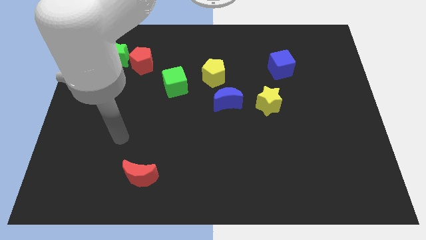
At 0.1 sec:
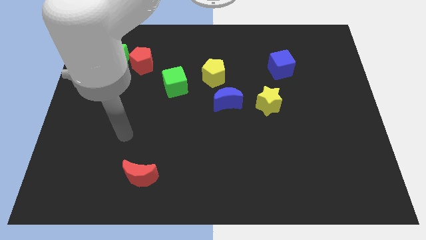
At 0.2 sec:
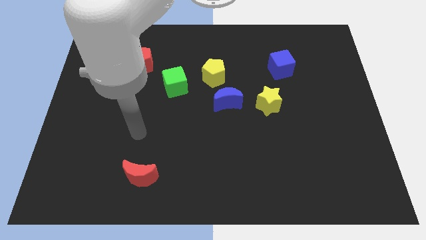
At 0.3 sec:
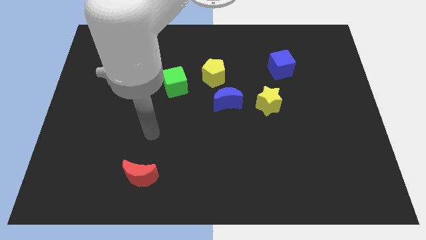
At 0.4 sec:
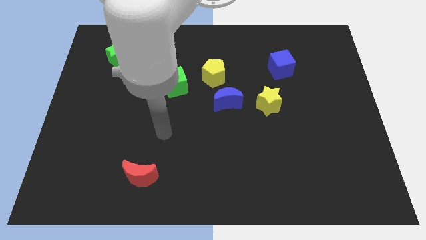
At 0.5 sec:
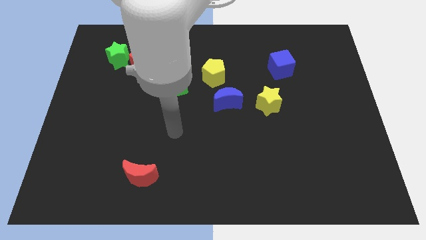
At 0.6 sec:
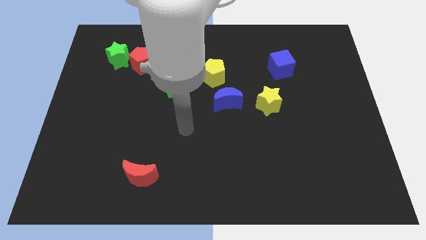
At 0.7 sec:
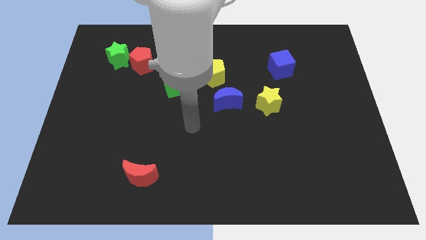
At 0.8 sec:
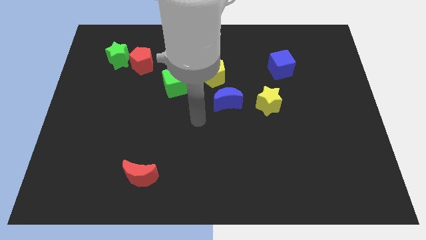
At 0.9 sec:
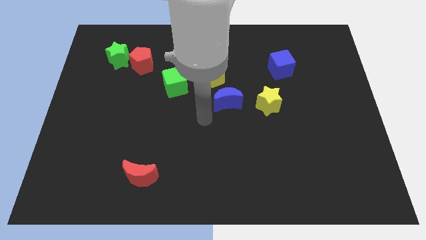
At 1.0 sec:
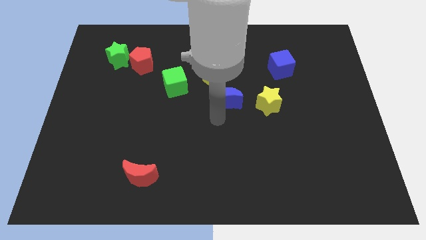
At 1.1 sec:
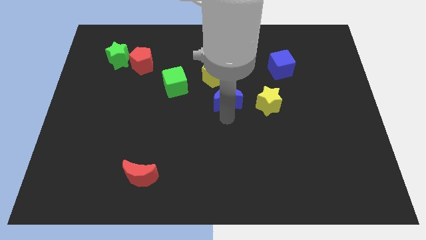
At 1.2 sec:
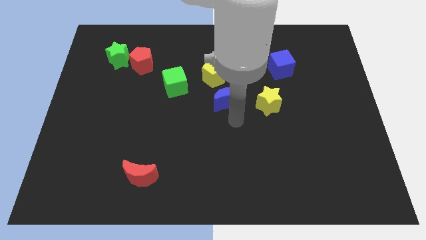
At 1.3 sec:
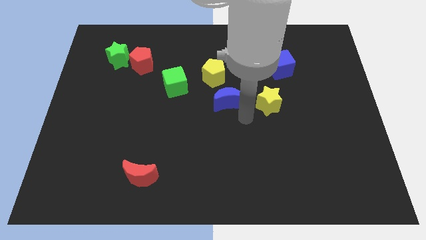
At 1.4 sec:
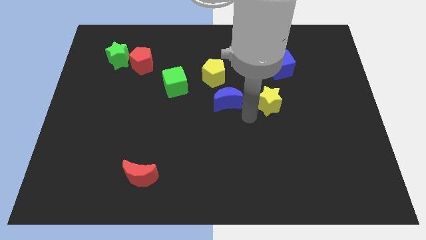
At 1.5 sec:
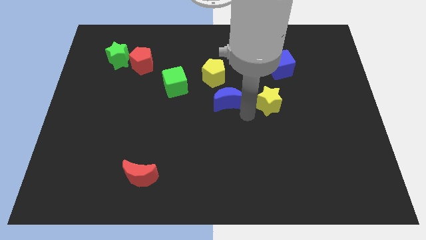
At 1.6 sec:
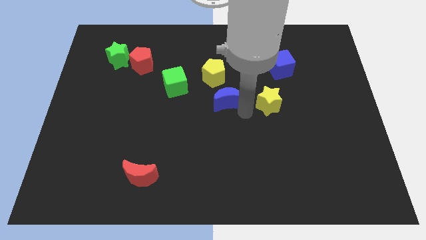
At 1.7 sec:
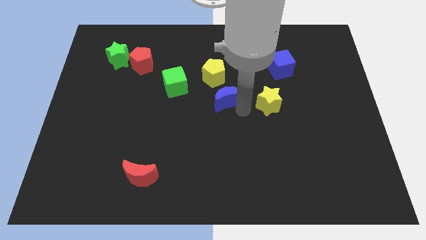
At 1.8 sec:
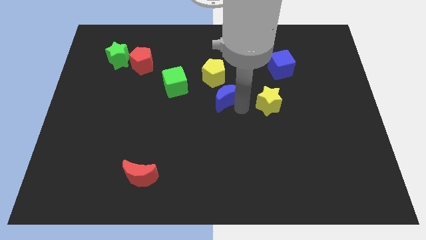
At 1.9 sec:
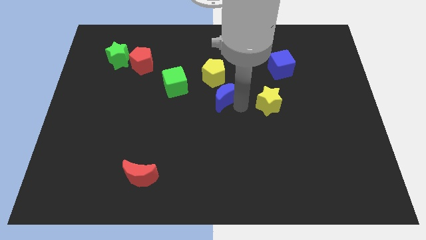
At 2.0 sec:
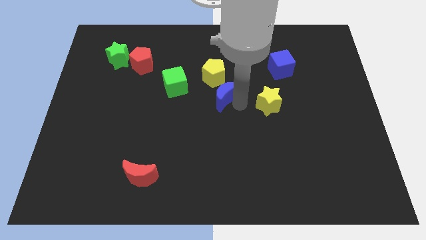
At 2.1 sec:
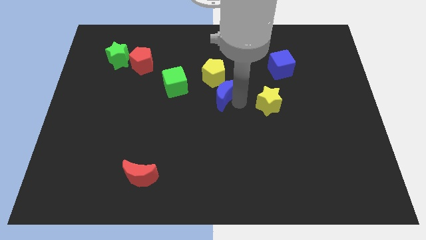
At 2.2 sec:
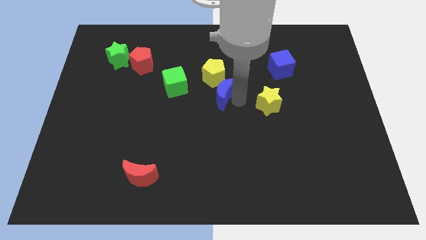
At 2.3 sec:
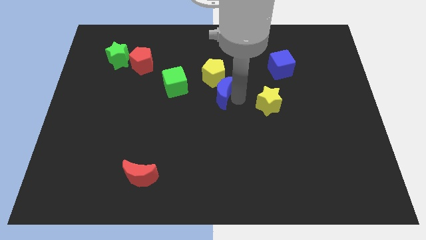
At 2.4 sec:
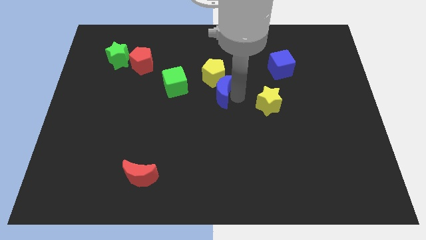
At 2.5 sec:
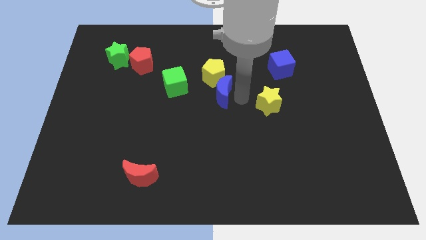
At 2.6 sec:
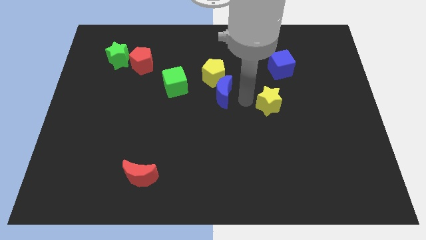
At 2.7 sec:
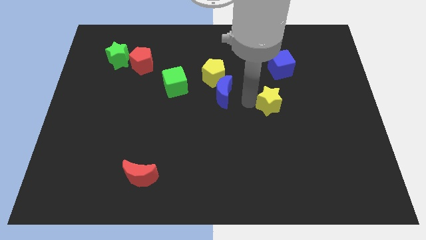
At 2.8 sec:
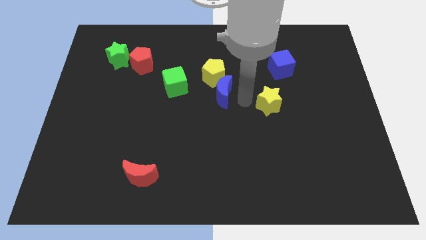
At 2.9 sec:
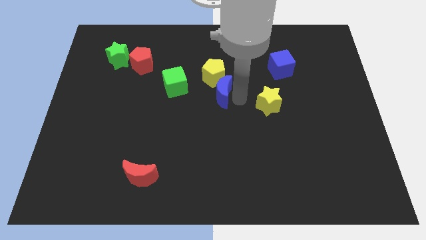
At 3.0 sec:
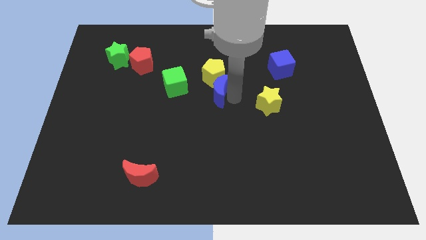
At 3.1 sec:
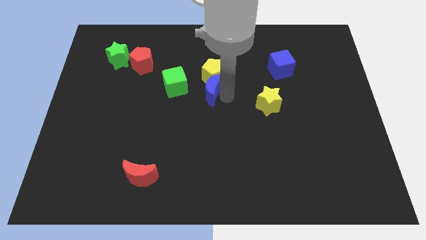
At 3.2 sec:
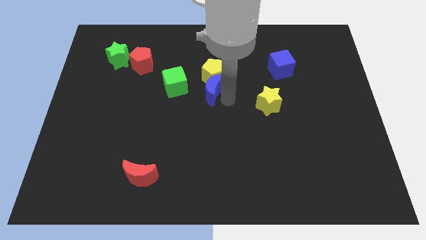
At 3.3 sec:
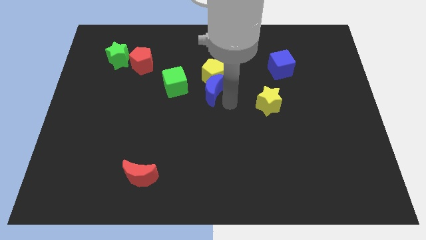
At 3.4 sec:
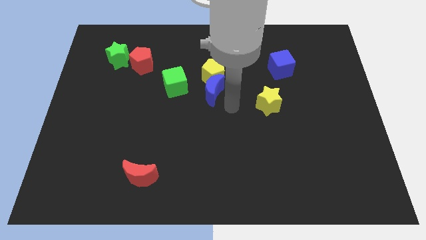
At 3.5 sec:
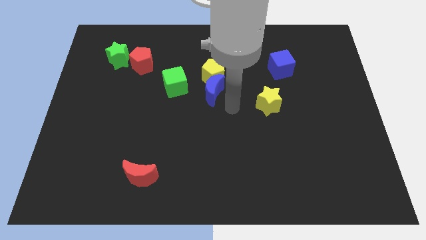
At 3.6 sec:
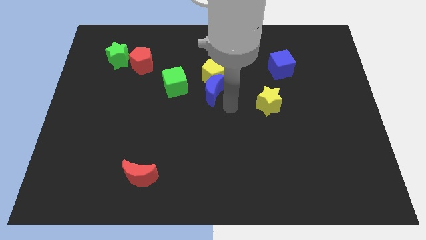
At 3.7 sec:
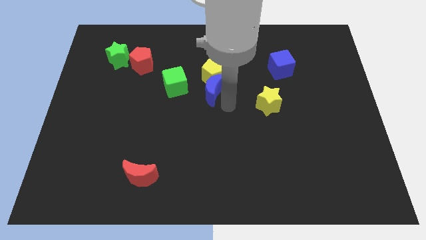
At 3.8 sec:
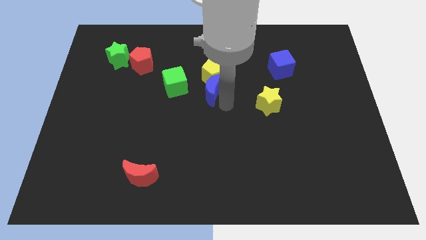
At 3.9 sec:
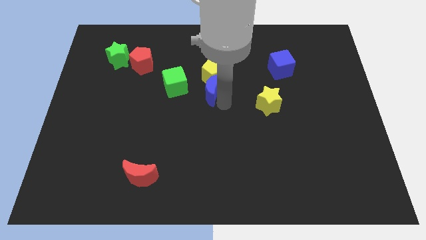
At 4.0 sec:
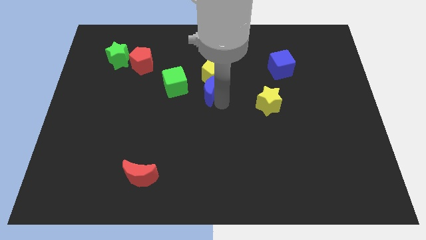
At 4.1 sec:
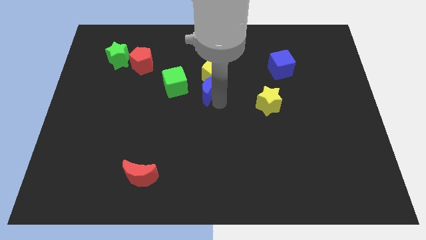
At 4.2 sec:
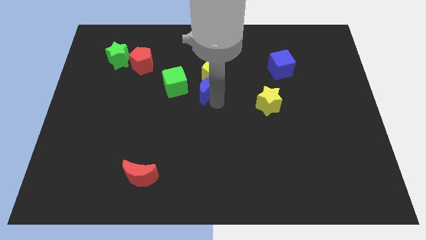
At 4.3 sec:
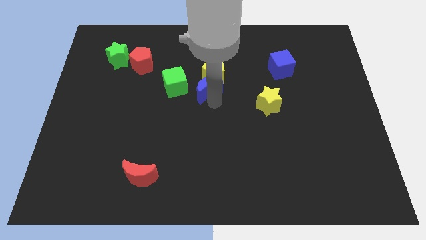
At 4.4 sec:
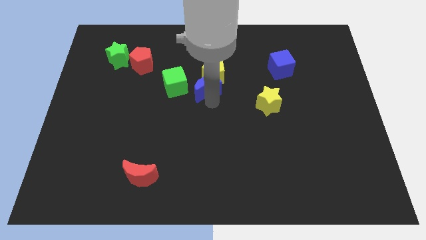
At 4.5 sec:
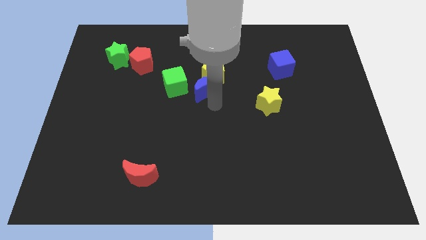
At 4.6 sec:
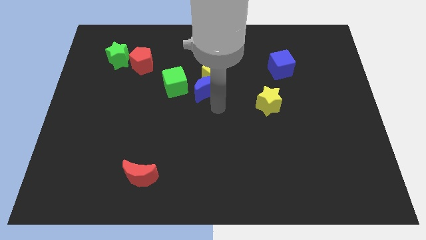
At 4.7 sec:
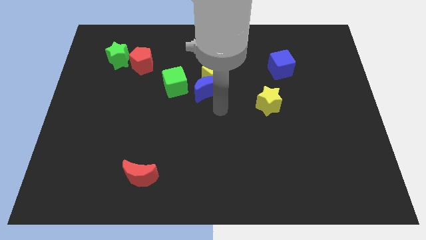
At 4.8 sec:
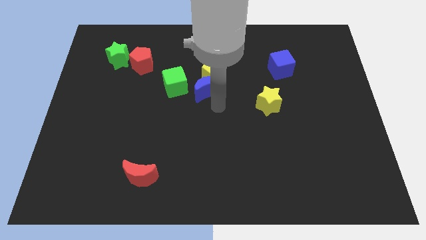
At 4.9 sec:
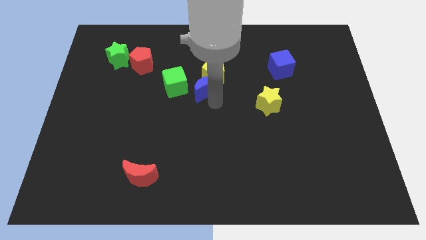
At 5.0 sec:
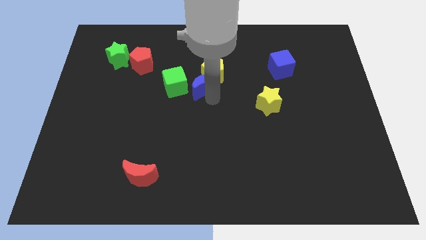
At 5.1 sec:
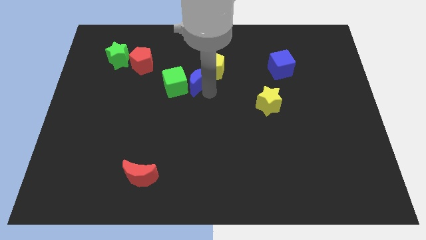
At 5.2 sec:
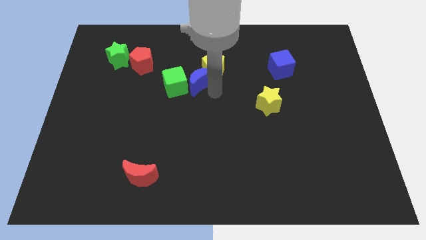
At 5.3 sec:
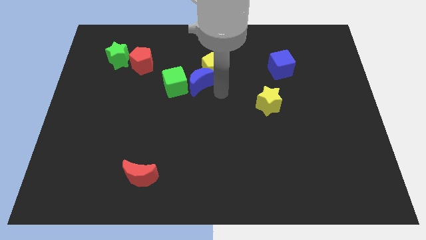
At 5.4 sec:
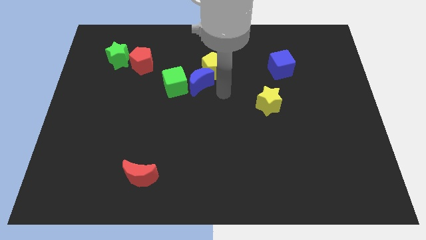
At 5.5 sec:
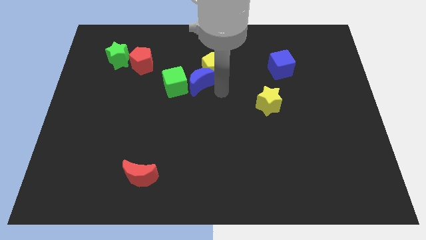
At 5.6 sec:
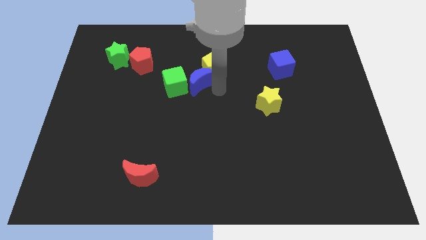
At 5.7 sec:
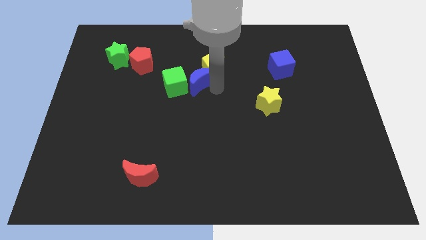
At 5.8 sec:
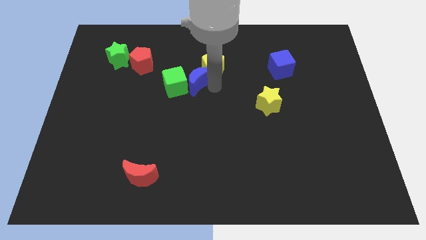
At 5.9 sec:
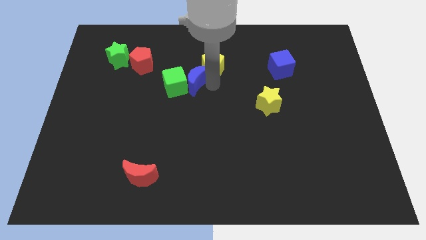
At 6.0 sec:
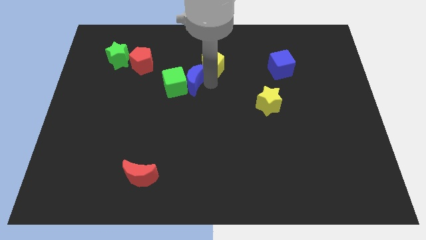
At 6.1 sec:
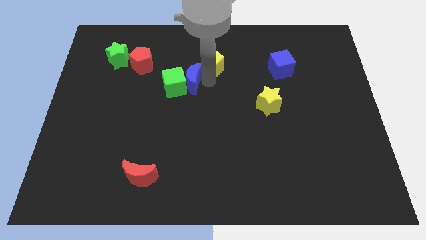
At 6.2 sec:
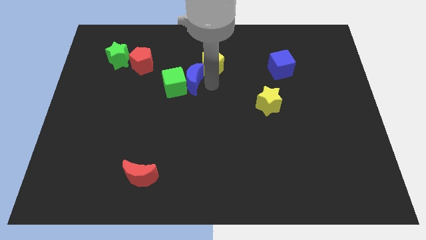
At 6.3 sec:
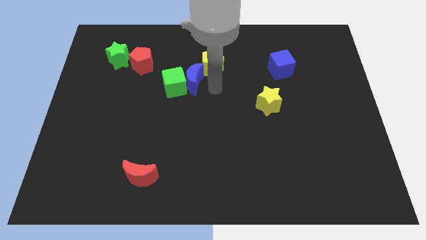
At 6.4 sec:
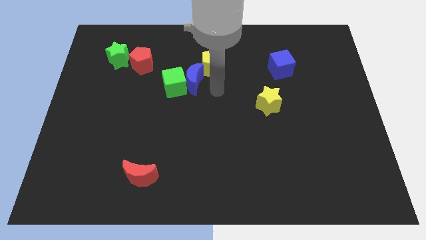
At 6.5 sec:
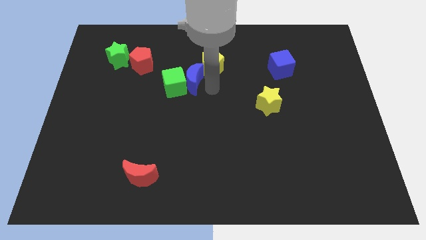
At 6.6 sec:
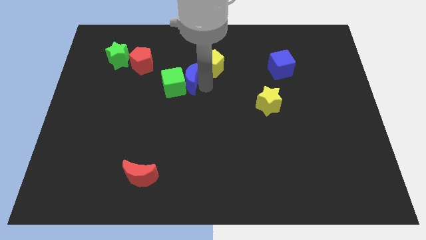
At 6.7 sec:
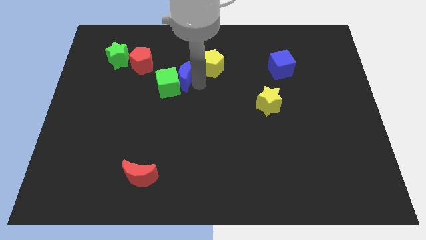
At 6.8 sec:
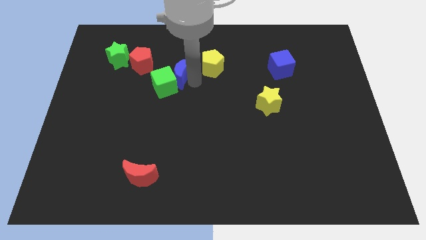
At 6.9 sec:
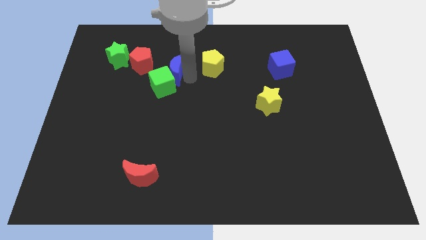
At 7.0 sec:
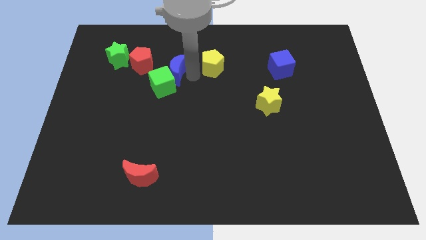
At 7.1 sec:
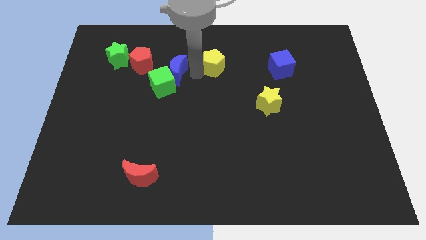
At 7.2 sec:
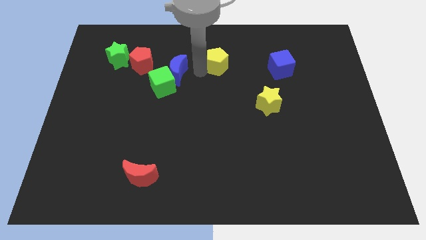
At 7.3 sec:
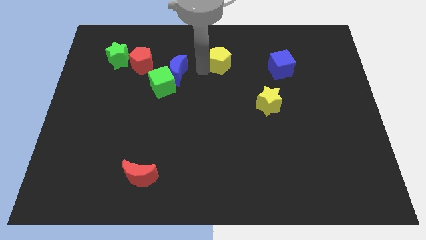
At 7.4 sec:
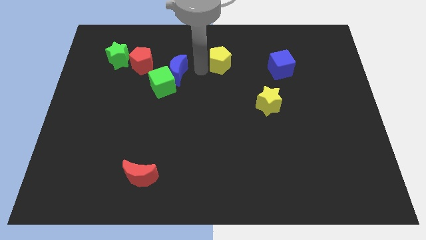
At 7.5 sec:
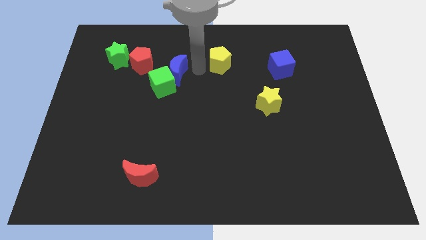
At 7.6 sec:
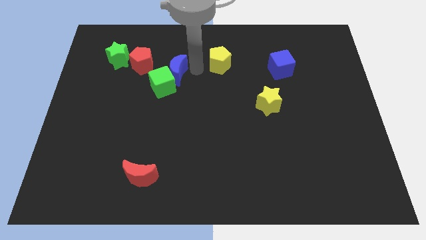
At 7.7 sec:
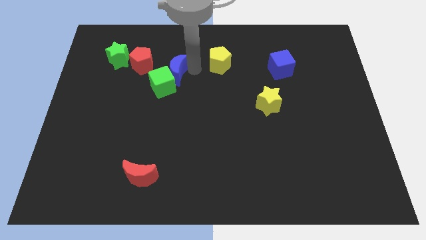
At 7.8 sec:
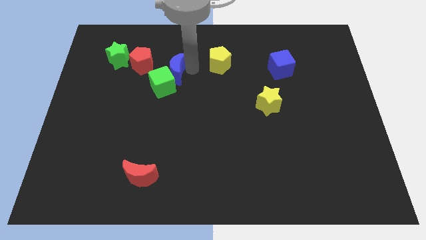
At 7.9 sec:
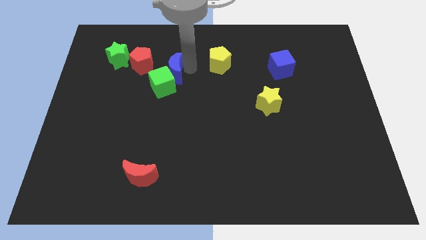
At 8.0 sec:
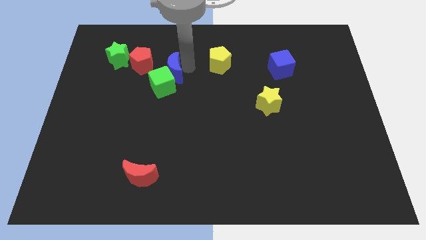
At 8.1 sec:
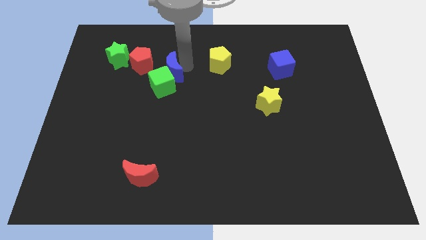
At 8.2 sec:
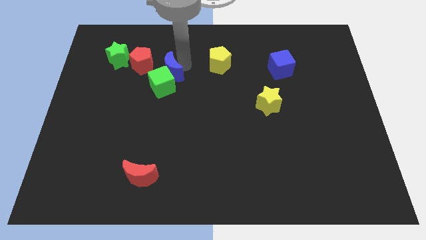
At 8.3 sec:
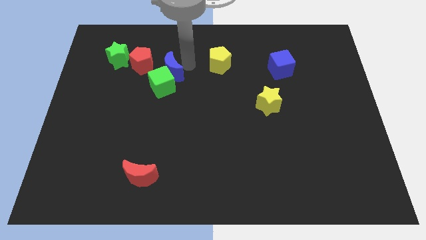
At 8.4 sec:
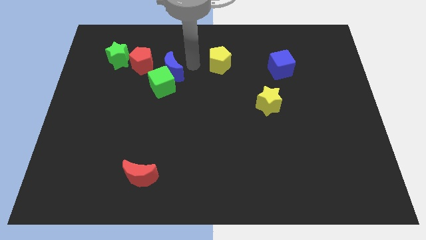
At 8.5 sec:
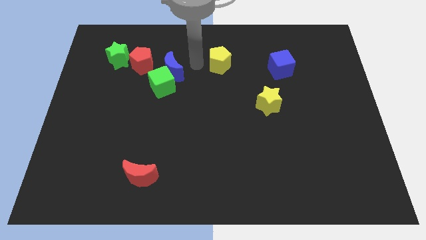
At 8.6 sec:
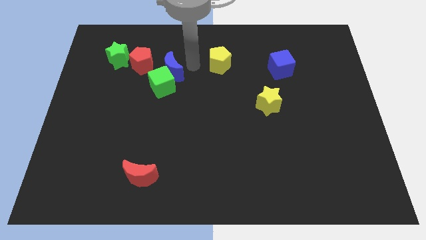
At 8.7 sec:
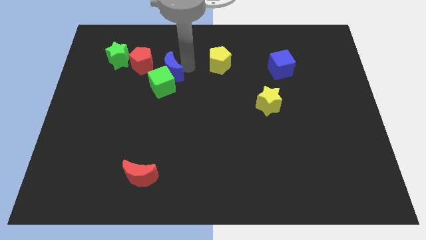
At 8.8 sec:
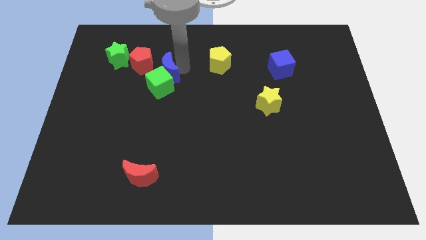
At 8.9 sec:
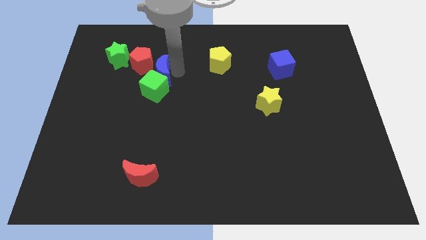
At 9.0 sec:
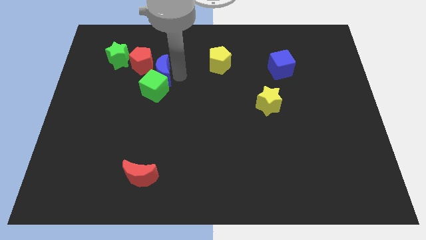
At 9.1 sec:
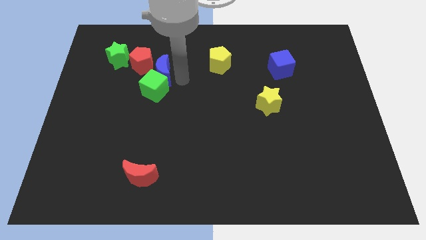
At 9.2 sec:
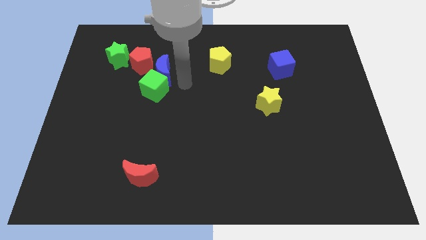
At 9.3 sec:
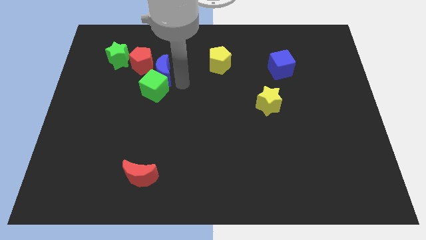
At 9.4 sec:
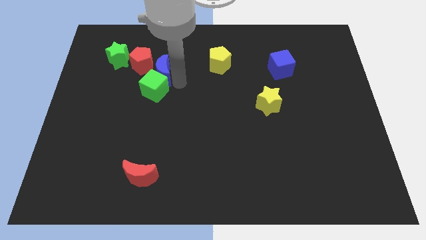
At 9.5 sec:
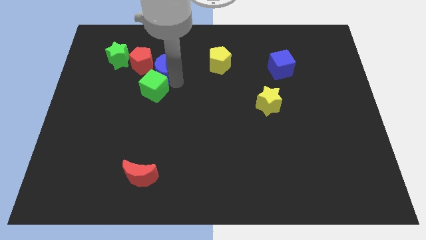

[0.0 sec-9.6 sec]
push the blue moon to the red pentagon
